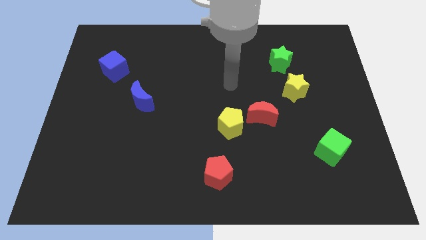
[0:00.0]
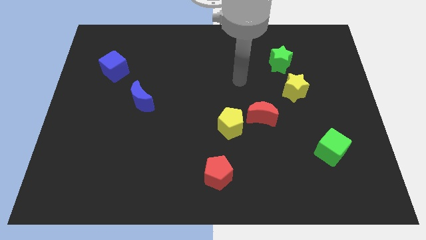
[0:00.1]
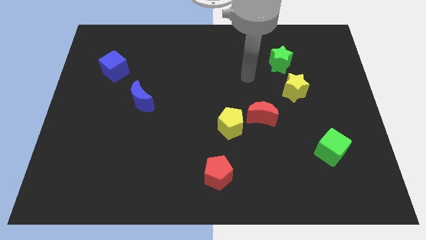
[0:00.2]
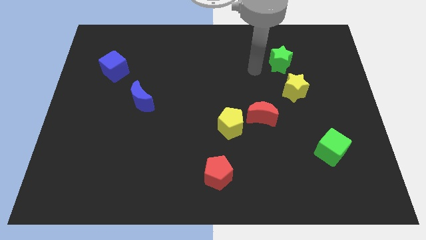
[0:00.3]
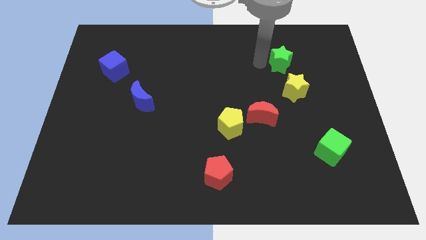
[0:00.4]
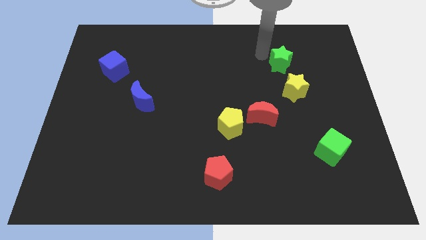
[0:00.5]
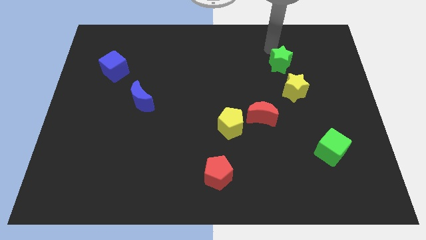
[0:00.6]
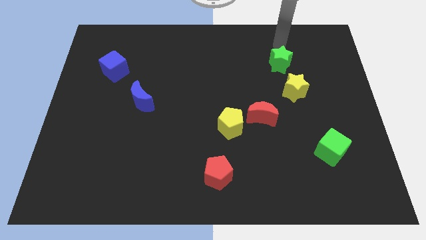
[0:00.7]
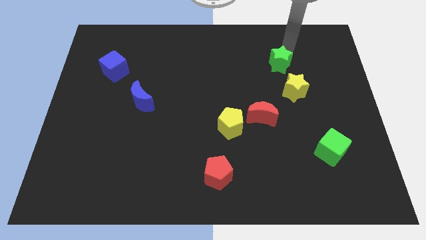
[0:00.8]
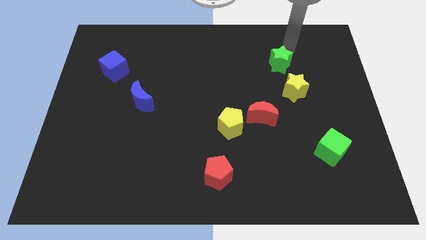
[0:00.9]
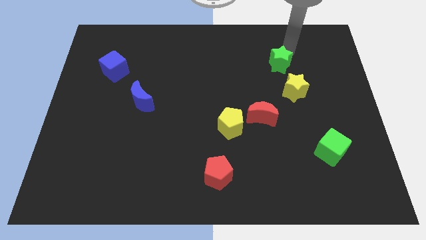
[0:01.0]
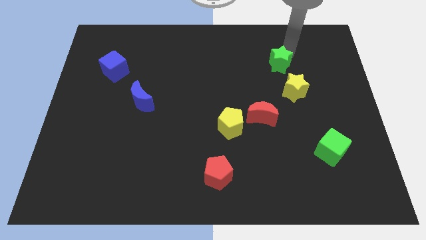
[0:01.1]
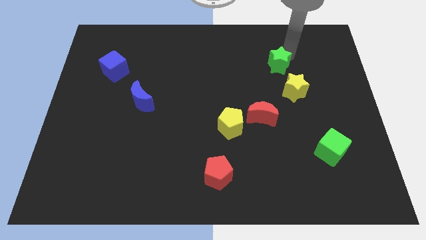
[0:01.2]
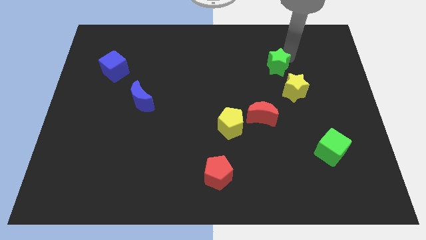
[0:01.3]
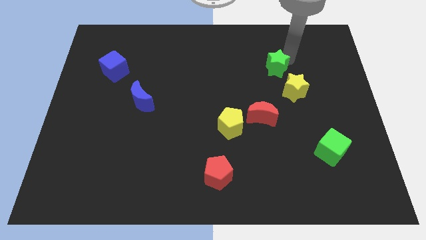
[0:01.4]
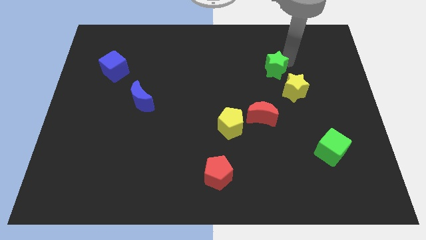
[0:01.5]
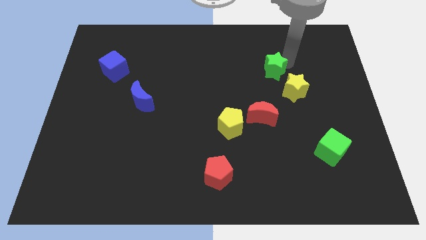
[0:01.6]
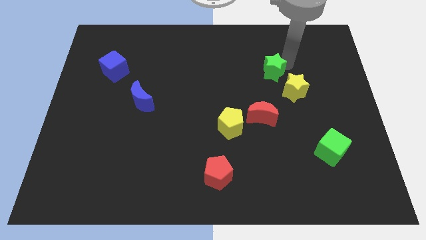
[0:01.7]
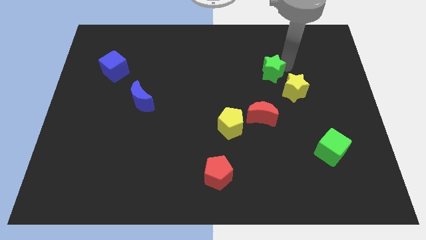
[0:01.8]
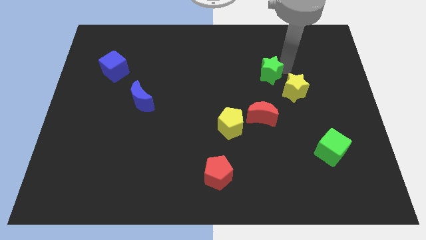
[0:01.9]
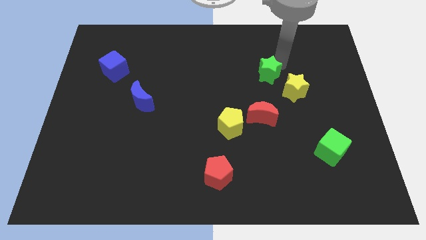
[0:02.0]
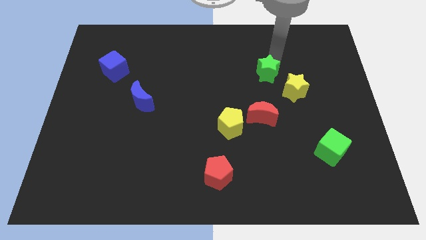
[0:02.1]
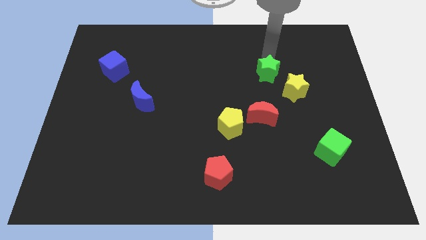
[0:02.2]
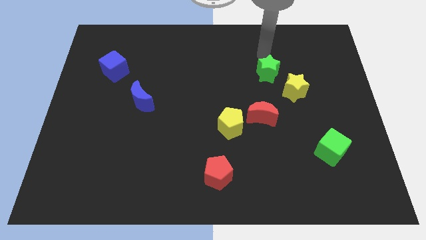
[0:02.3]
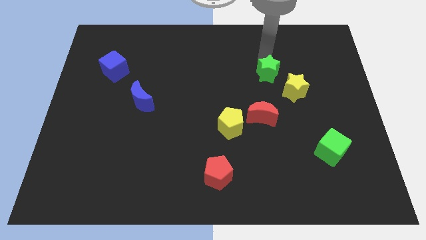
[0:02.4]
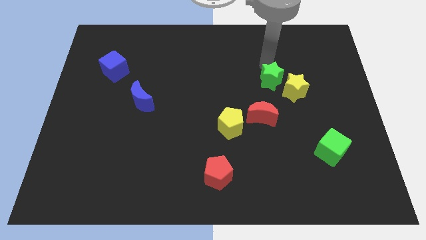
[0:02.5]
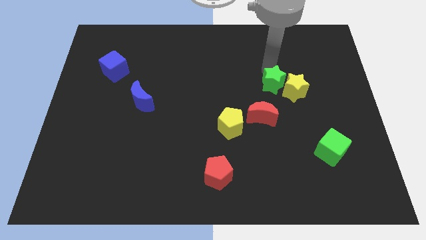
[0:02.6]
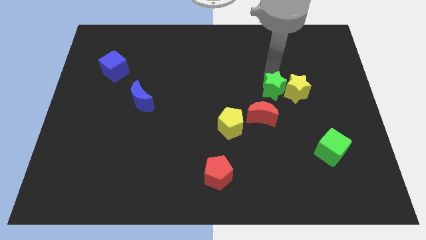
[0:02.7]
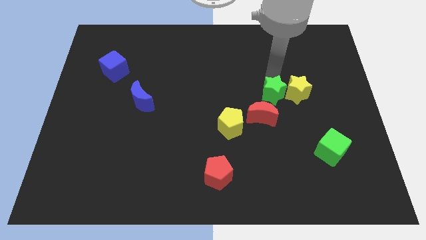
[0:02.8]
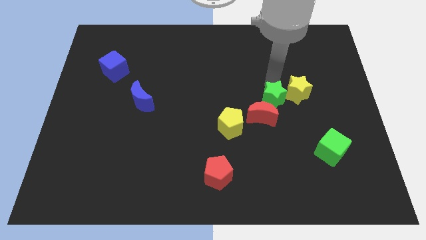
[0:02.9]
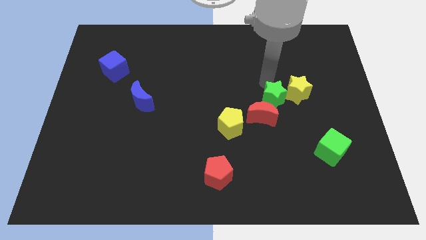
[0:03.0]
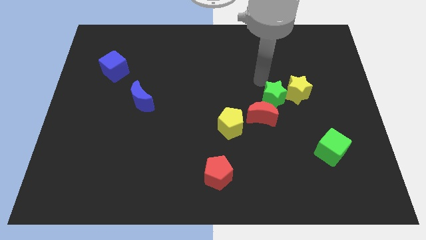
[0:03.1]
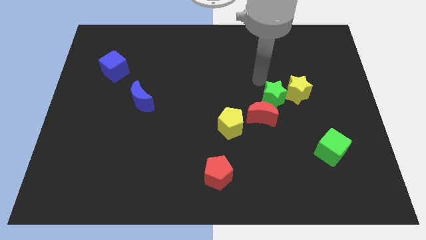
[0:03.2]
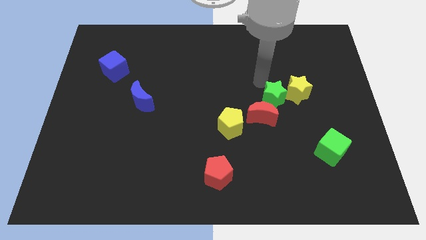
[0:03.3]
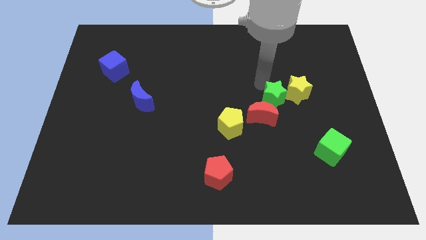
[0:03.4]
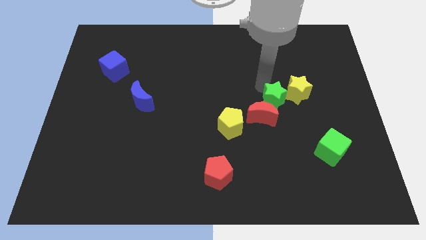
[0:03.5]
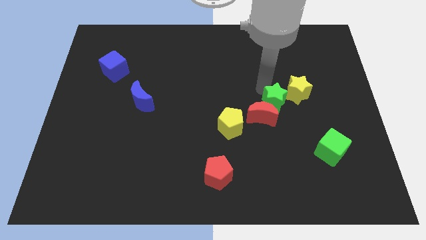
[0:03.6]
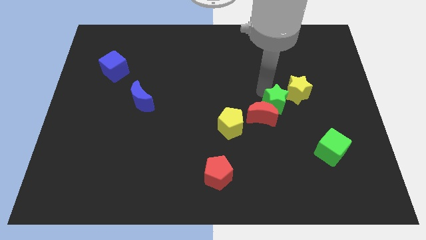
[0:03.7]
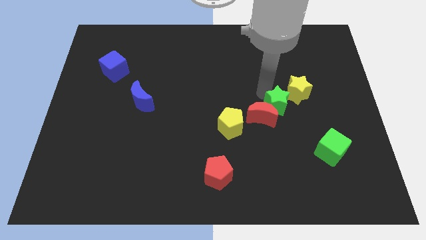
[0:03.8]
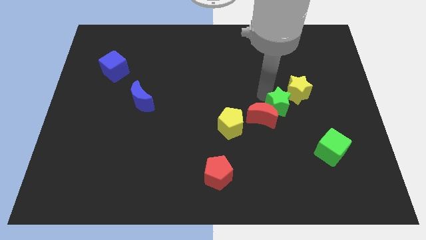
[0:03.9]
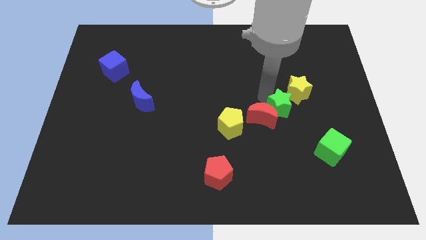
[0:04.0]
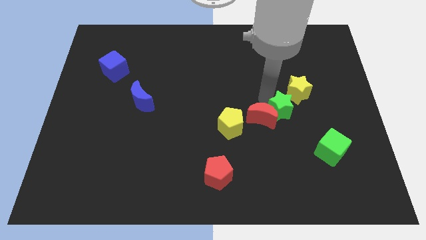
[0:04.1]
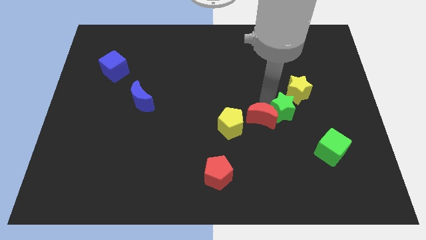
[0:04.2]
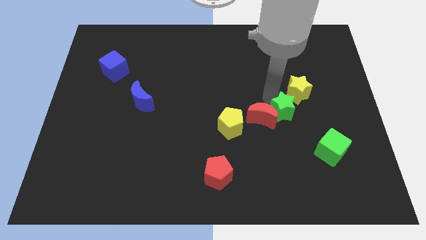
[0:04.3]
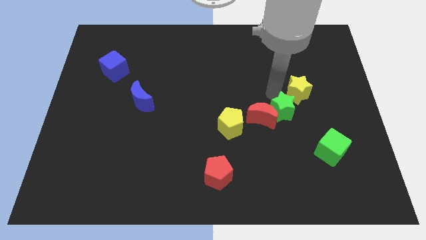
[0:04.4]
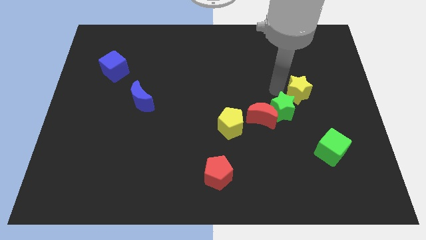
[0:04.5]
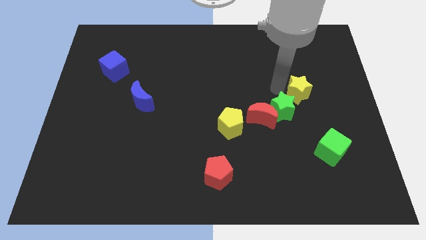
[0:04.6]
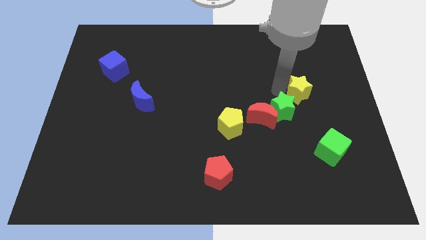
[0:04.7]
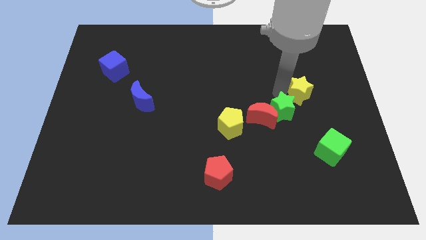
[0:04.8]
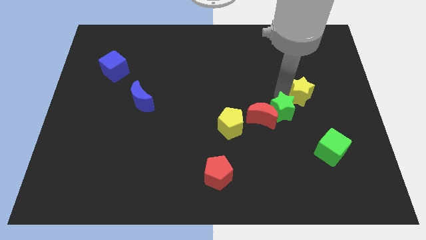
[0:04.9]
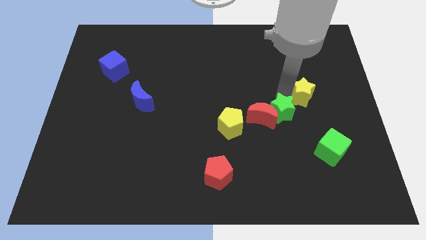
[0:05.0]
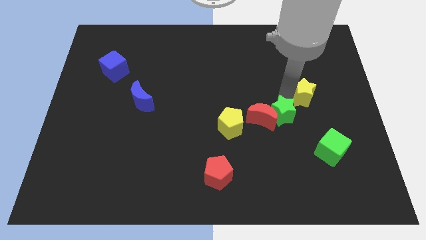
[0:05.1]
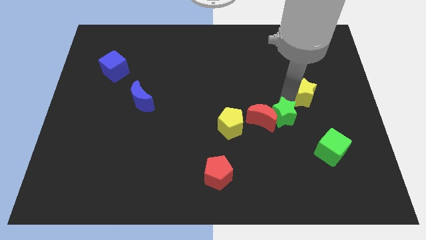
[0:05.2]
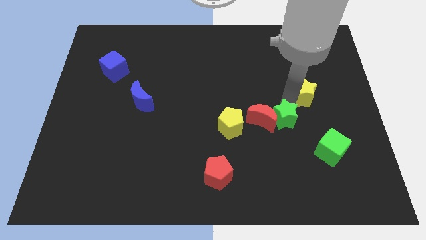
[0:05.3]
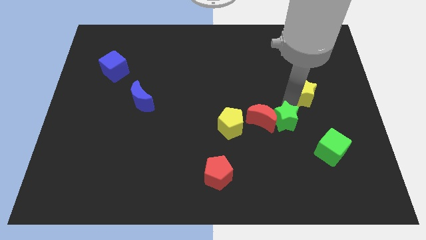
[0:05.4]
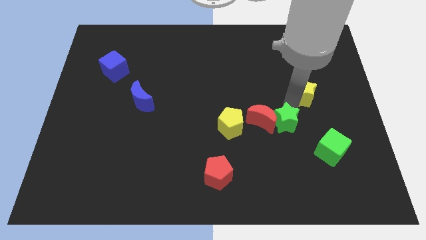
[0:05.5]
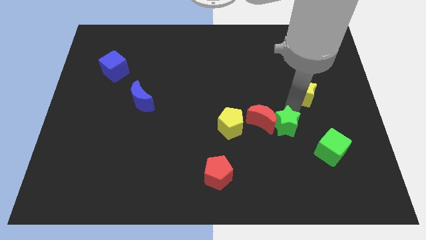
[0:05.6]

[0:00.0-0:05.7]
slide the green star downwards

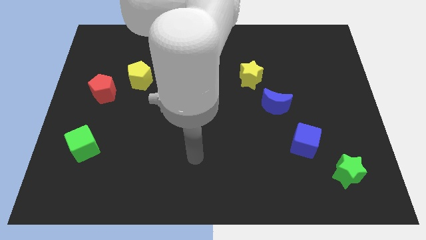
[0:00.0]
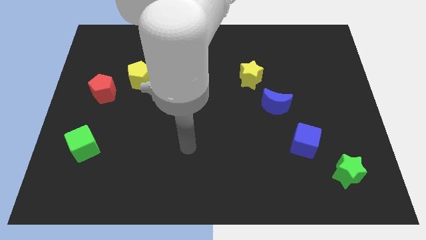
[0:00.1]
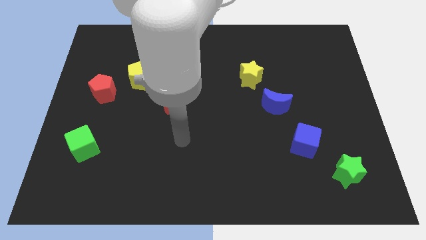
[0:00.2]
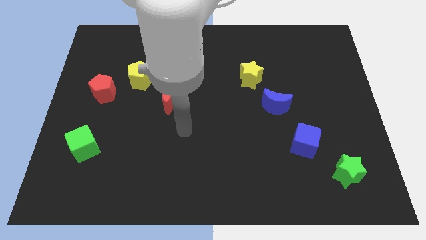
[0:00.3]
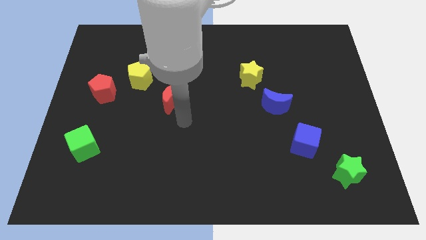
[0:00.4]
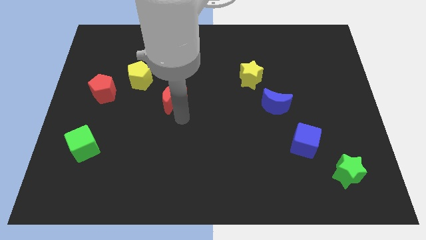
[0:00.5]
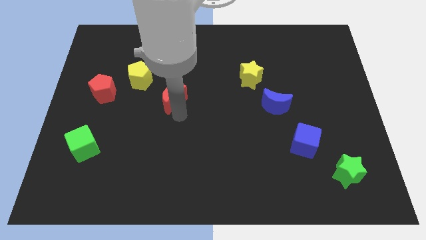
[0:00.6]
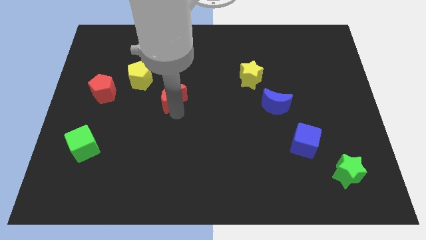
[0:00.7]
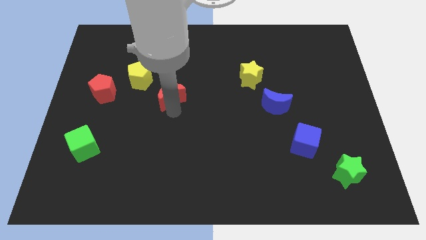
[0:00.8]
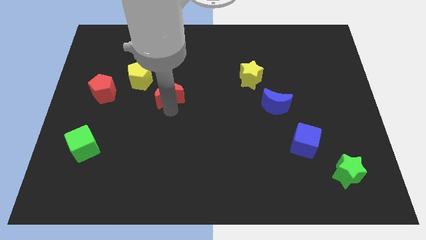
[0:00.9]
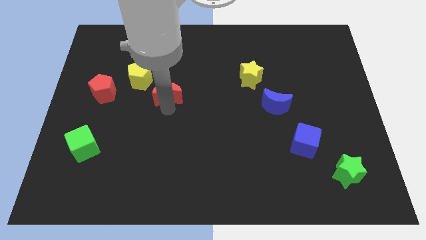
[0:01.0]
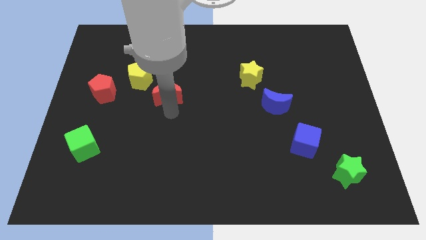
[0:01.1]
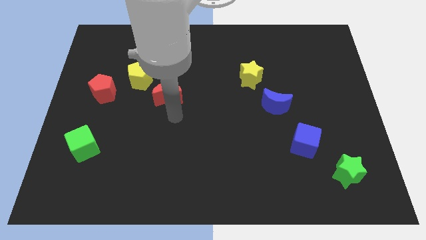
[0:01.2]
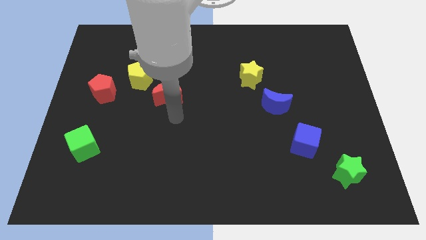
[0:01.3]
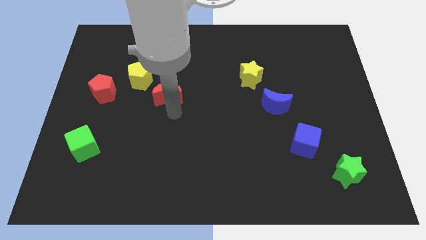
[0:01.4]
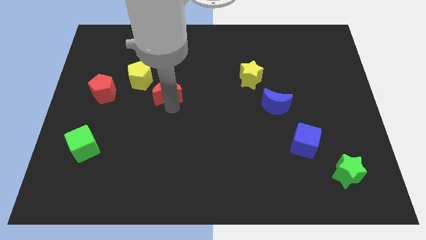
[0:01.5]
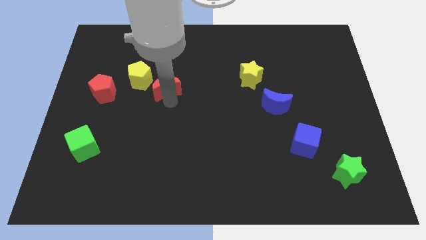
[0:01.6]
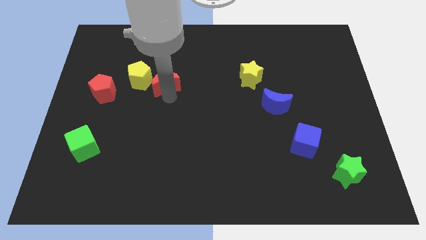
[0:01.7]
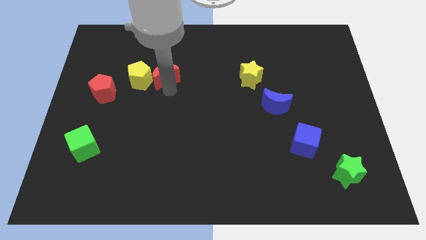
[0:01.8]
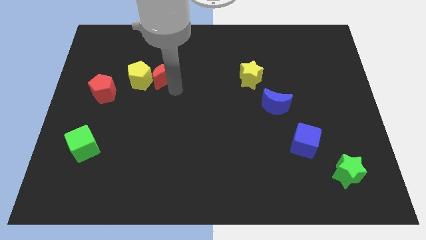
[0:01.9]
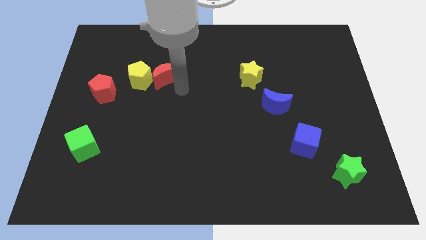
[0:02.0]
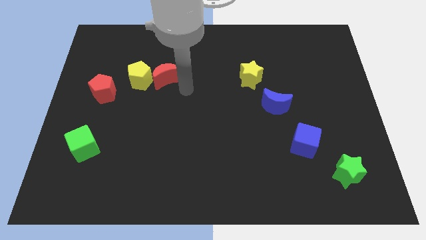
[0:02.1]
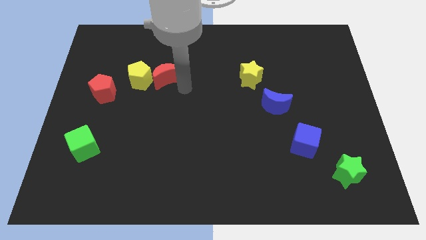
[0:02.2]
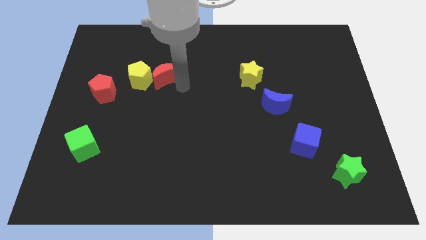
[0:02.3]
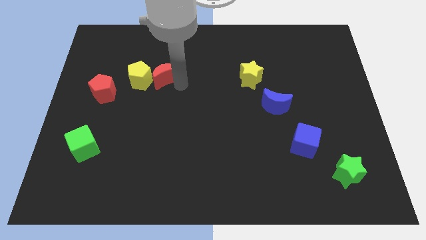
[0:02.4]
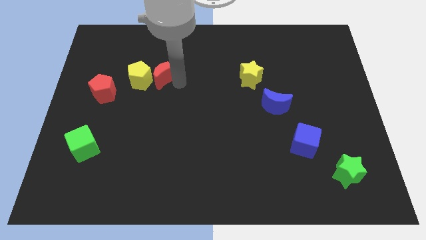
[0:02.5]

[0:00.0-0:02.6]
slightly slide the red moon up and left diagonally
